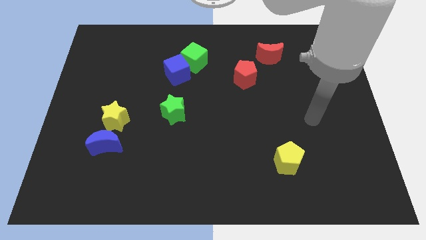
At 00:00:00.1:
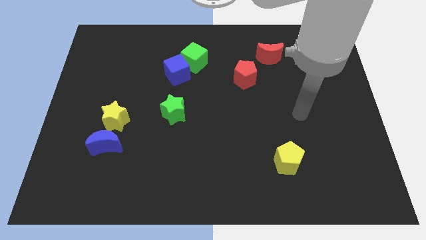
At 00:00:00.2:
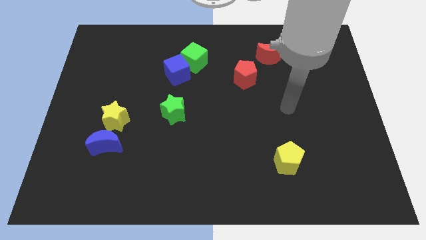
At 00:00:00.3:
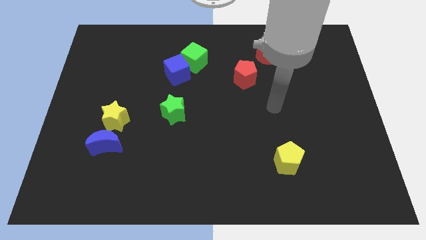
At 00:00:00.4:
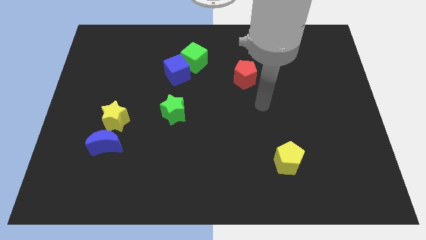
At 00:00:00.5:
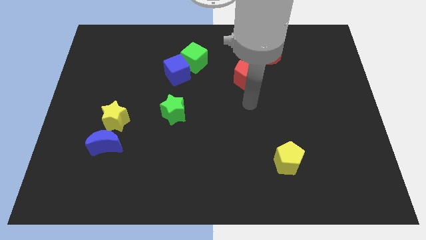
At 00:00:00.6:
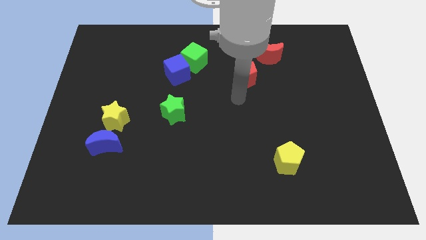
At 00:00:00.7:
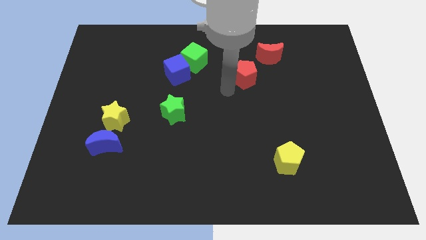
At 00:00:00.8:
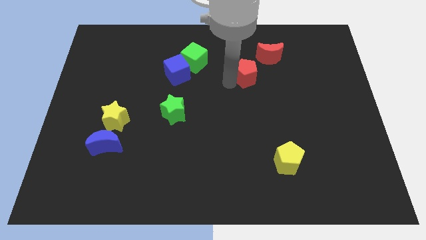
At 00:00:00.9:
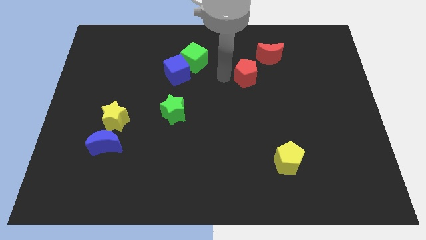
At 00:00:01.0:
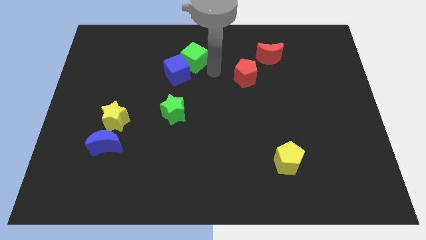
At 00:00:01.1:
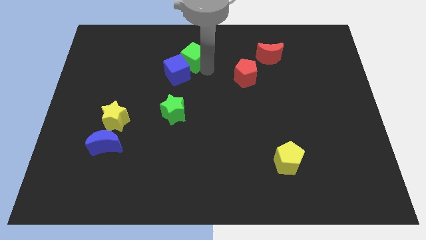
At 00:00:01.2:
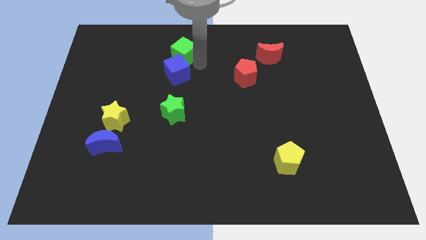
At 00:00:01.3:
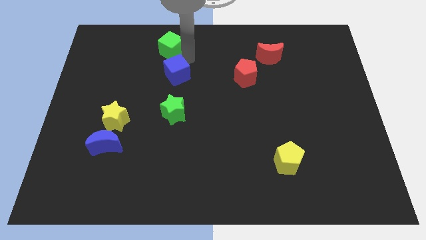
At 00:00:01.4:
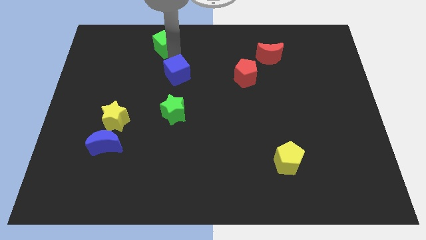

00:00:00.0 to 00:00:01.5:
move the blue cube away from the green cube

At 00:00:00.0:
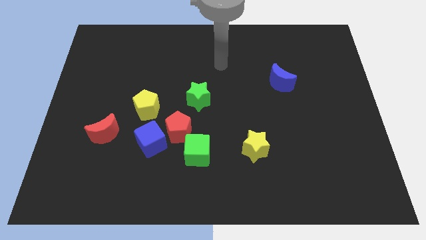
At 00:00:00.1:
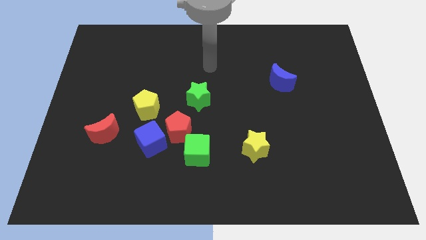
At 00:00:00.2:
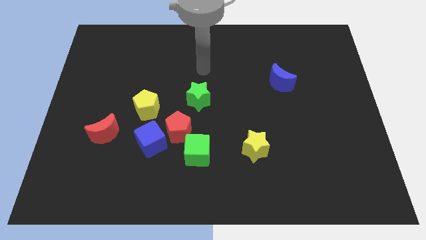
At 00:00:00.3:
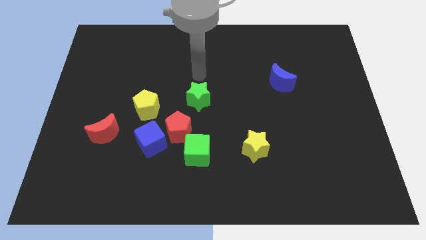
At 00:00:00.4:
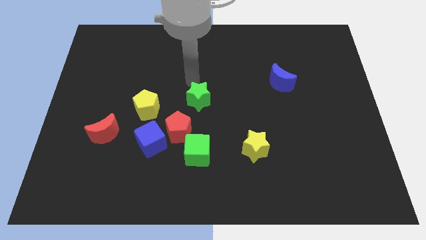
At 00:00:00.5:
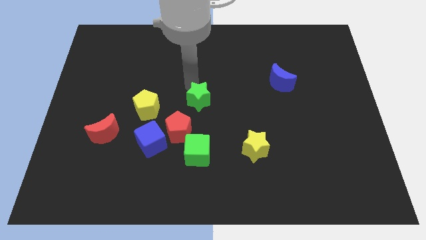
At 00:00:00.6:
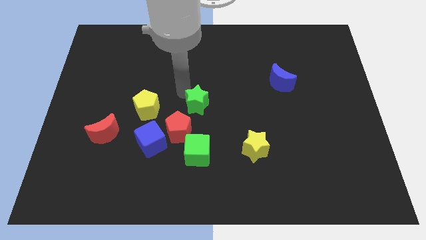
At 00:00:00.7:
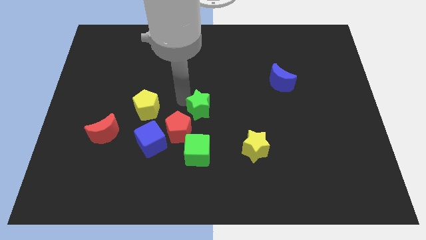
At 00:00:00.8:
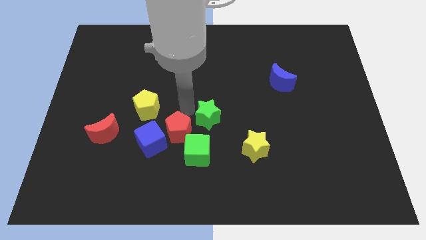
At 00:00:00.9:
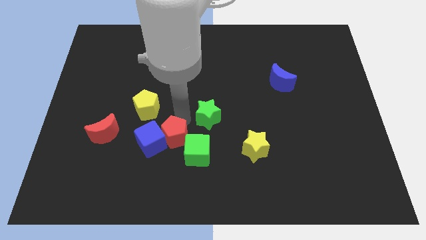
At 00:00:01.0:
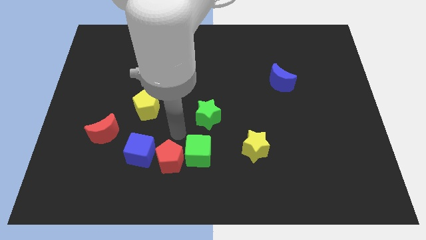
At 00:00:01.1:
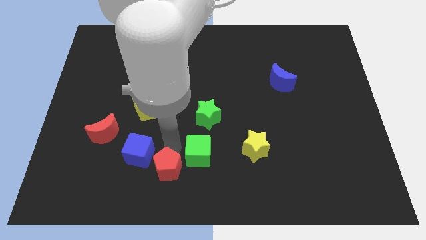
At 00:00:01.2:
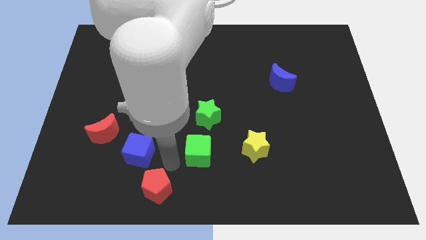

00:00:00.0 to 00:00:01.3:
separate the green cube from the red pentagon

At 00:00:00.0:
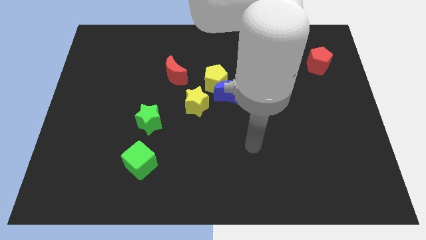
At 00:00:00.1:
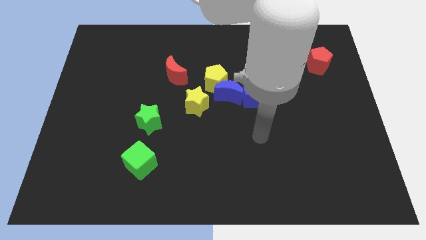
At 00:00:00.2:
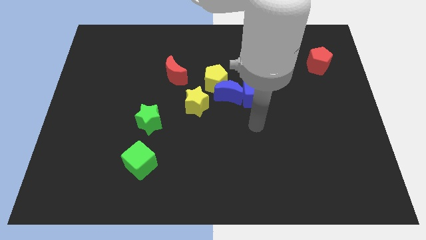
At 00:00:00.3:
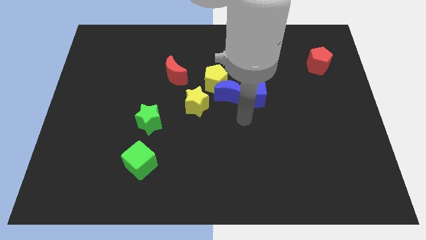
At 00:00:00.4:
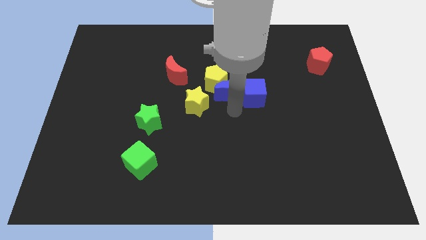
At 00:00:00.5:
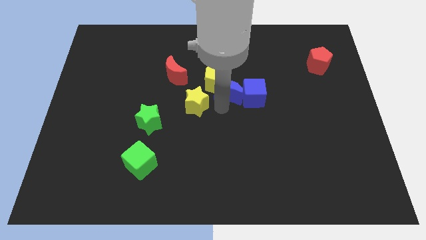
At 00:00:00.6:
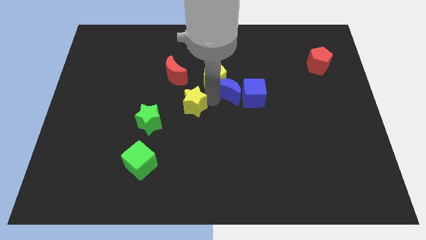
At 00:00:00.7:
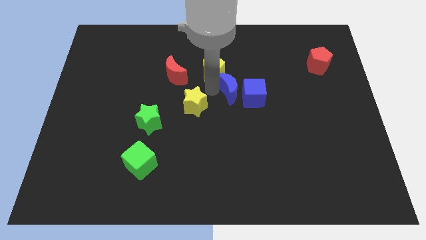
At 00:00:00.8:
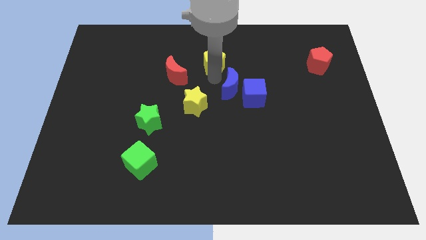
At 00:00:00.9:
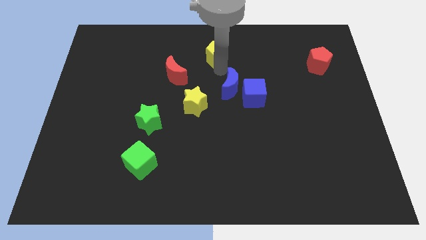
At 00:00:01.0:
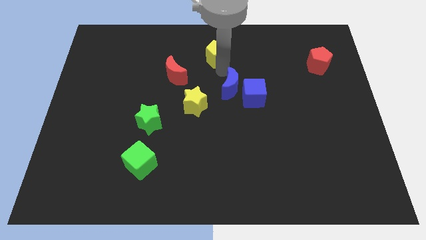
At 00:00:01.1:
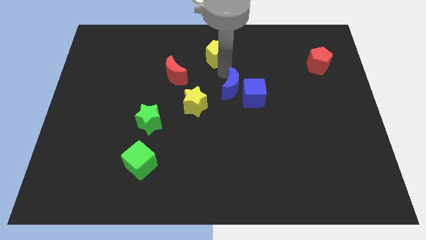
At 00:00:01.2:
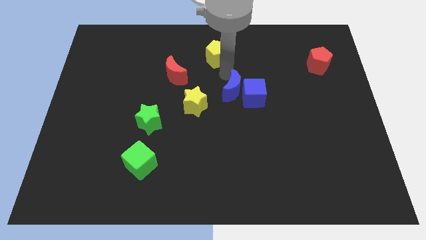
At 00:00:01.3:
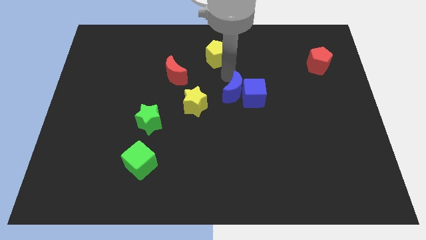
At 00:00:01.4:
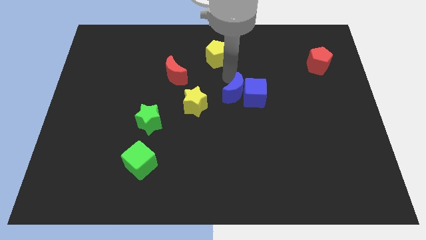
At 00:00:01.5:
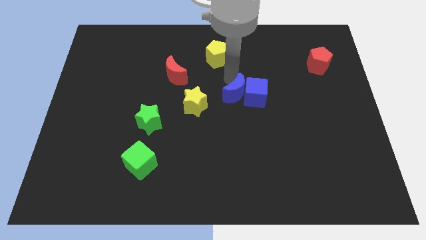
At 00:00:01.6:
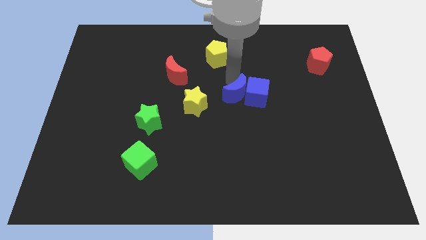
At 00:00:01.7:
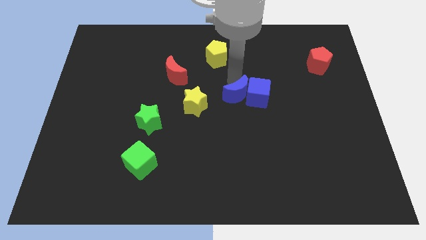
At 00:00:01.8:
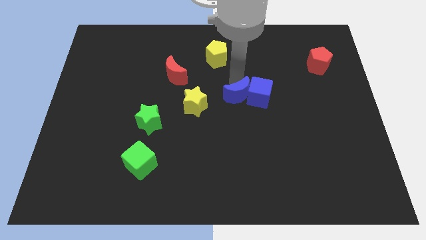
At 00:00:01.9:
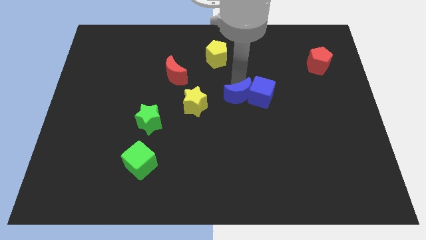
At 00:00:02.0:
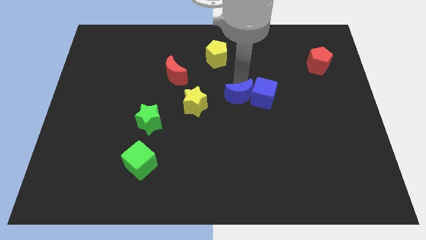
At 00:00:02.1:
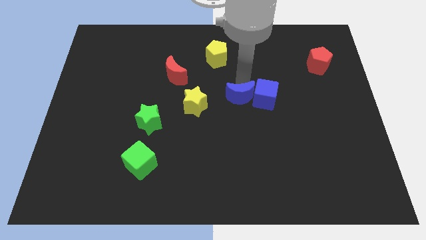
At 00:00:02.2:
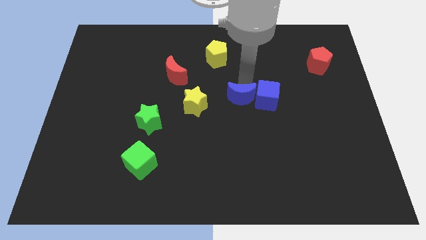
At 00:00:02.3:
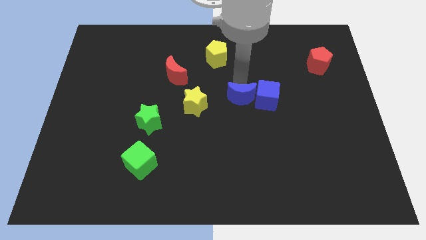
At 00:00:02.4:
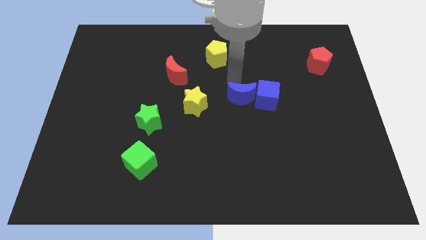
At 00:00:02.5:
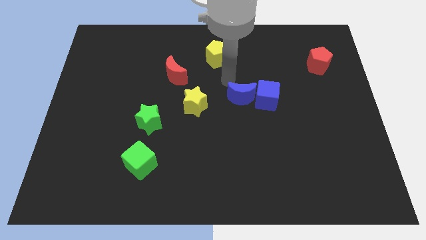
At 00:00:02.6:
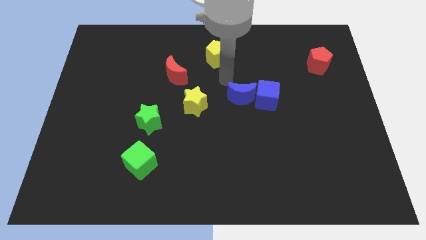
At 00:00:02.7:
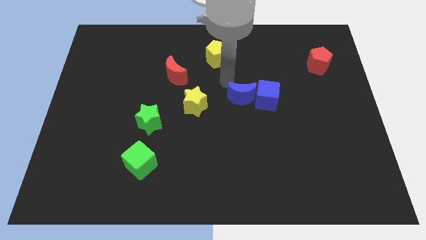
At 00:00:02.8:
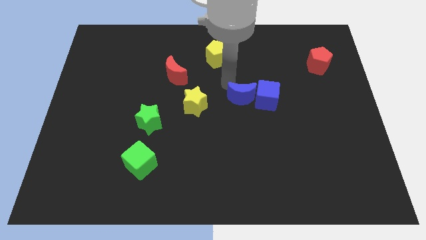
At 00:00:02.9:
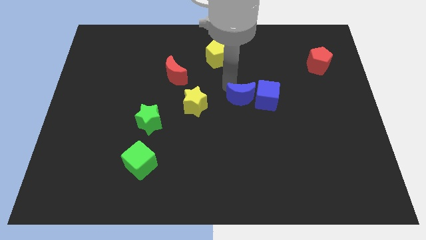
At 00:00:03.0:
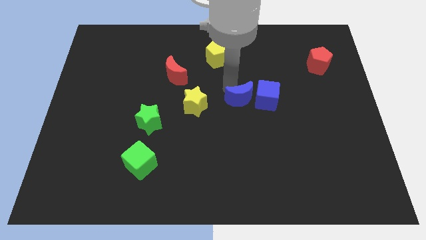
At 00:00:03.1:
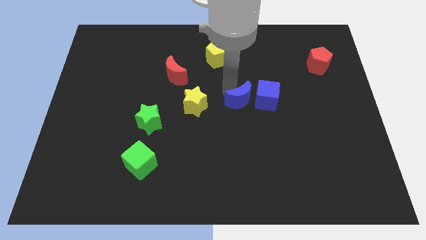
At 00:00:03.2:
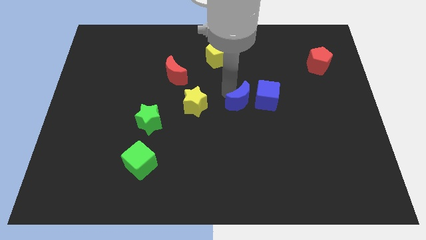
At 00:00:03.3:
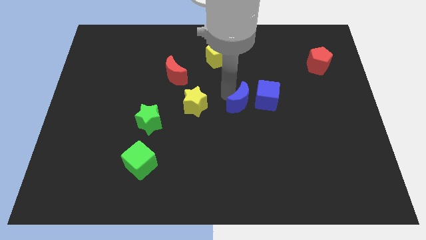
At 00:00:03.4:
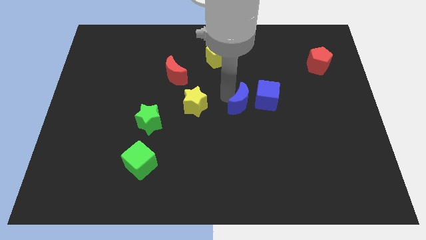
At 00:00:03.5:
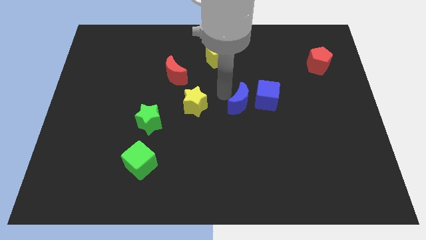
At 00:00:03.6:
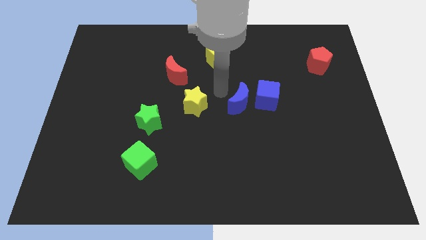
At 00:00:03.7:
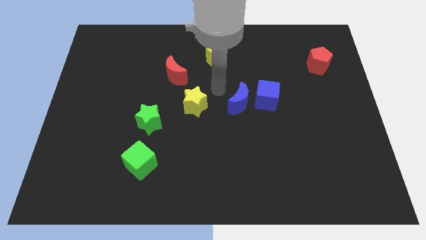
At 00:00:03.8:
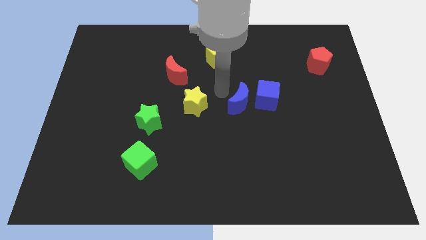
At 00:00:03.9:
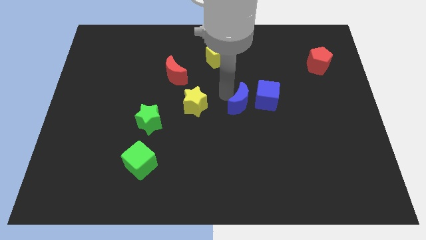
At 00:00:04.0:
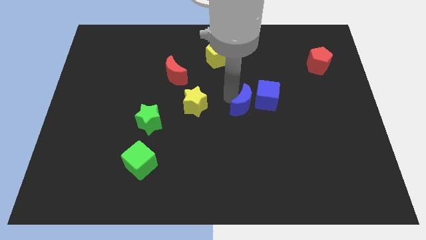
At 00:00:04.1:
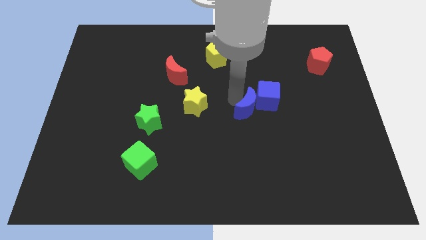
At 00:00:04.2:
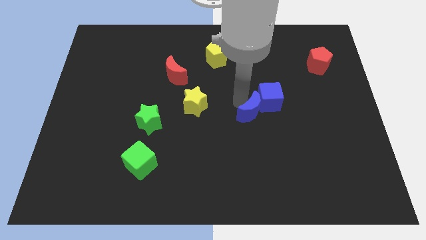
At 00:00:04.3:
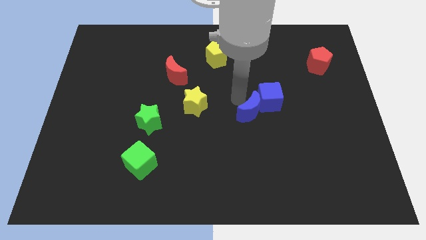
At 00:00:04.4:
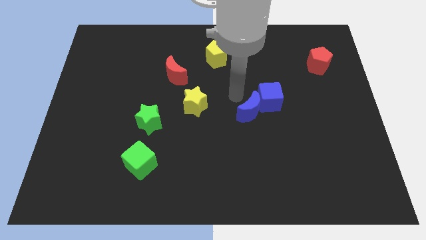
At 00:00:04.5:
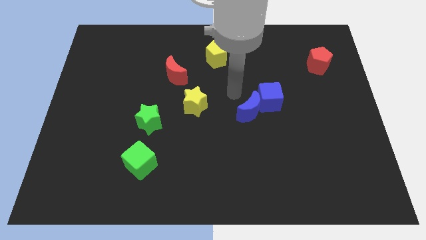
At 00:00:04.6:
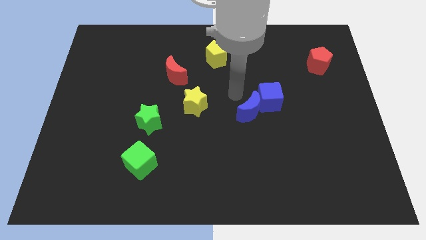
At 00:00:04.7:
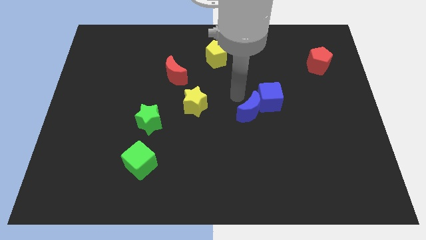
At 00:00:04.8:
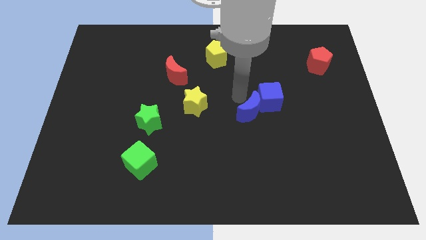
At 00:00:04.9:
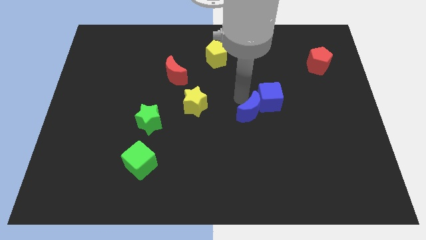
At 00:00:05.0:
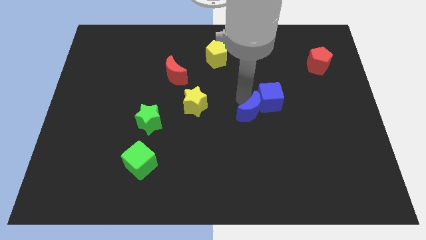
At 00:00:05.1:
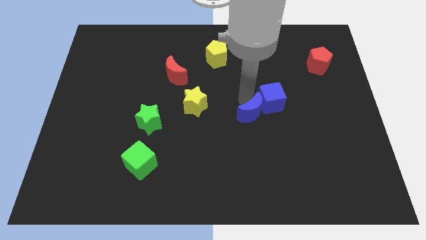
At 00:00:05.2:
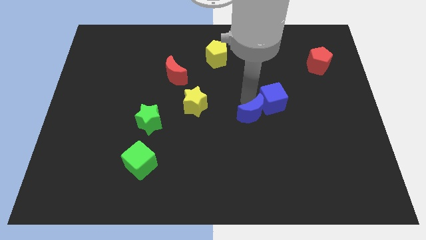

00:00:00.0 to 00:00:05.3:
move the blue moon away from the yellow pentagon, blue cube, and yellow star

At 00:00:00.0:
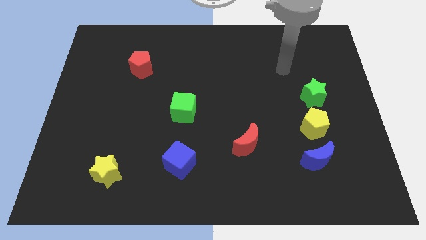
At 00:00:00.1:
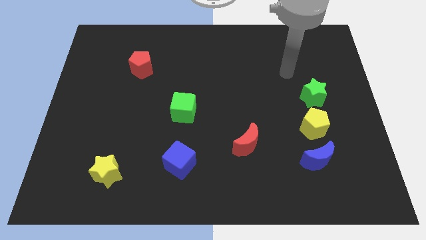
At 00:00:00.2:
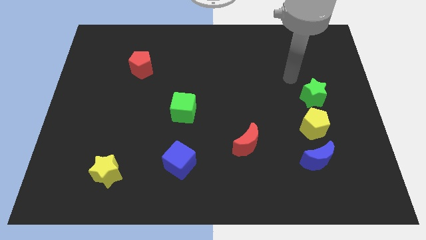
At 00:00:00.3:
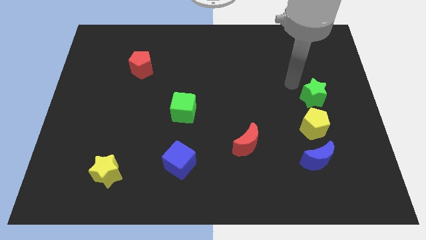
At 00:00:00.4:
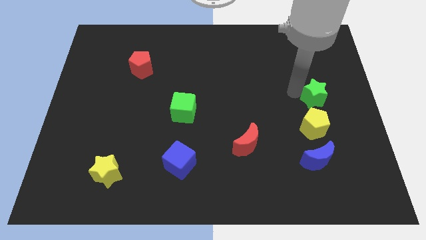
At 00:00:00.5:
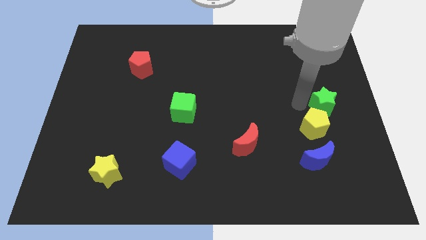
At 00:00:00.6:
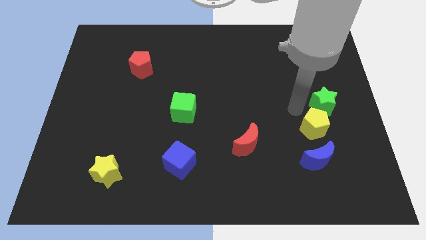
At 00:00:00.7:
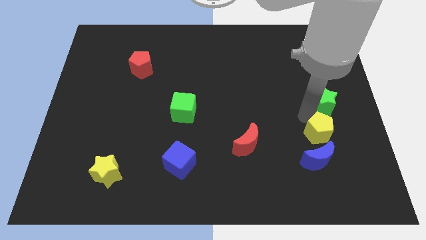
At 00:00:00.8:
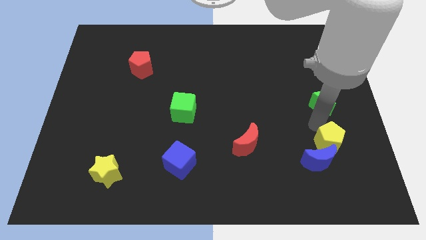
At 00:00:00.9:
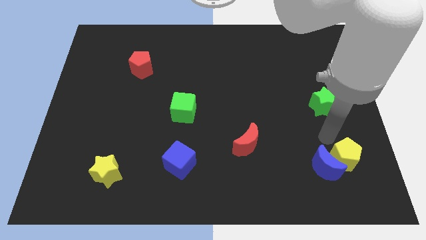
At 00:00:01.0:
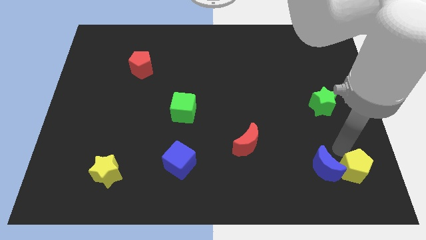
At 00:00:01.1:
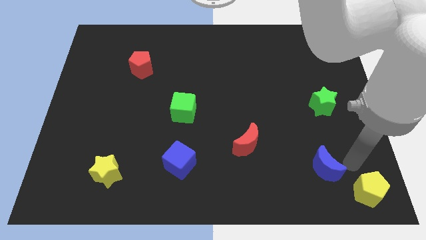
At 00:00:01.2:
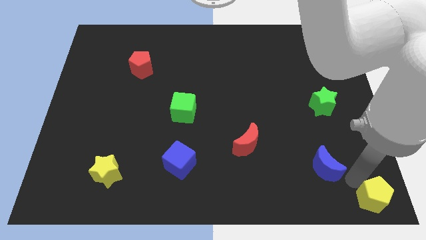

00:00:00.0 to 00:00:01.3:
move the blue moon away from the yellow pentagon

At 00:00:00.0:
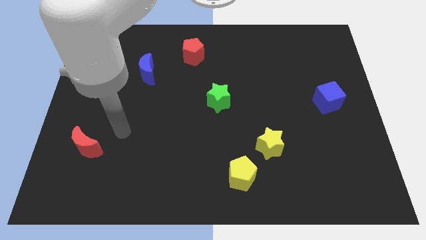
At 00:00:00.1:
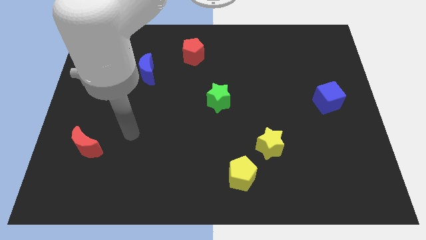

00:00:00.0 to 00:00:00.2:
pull the yellow star apart from the yellow pentagon
